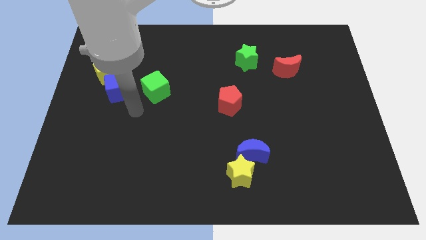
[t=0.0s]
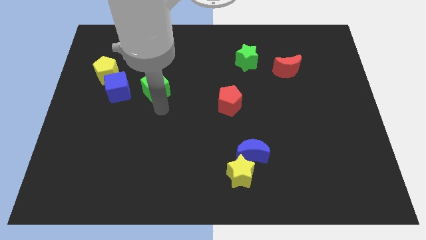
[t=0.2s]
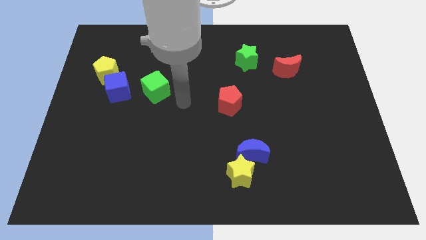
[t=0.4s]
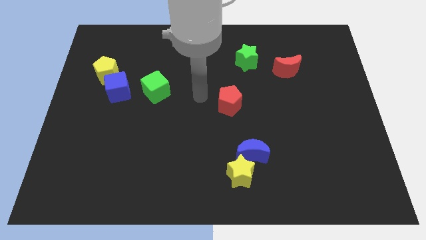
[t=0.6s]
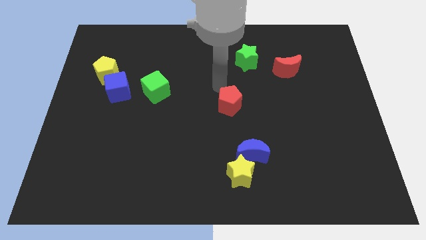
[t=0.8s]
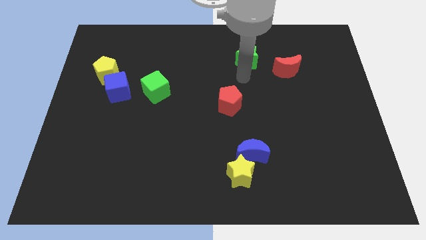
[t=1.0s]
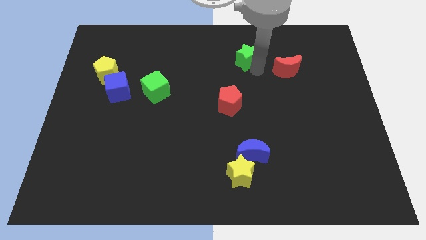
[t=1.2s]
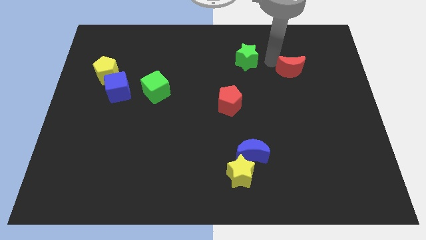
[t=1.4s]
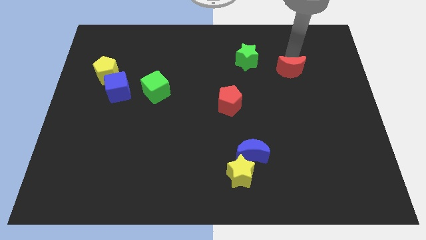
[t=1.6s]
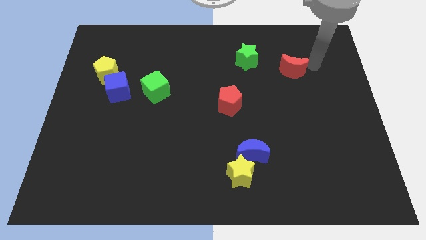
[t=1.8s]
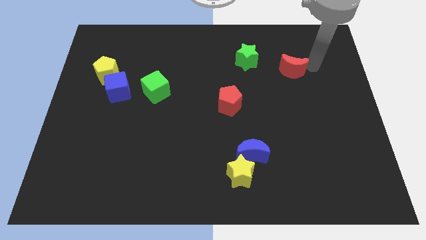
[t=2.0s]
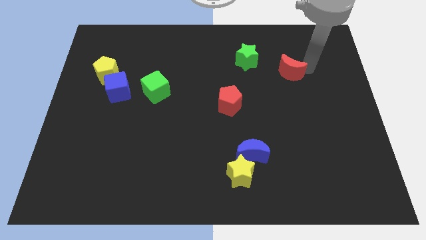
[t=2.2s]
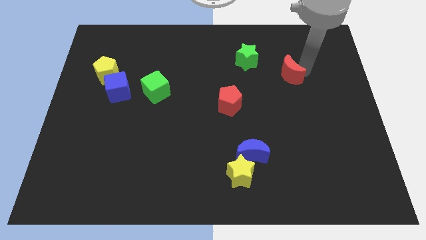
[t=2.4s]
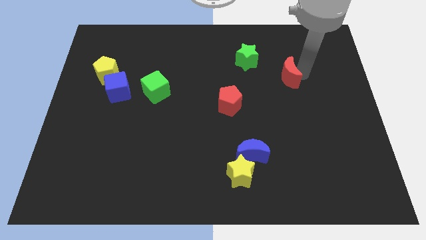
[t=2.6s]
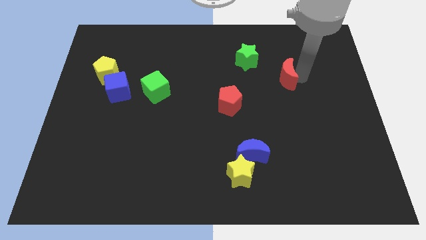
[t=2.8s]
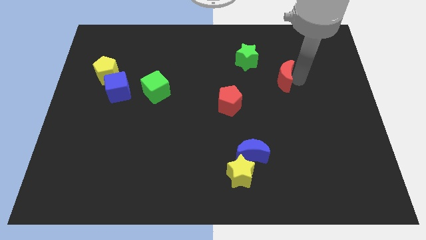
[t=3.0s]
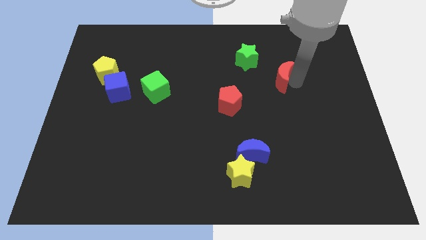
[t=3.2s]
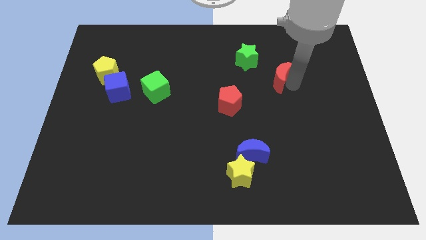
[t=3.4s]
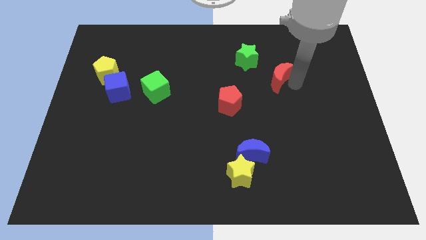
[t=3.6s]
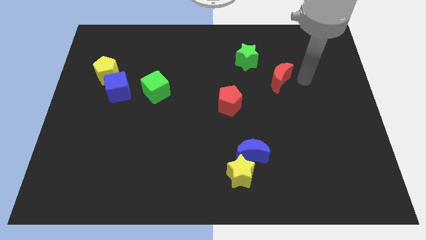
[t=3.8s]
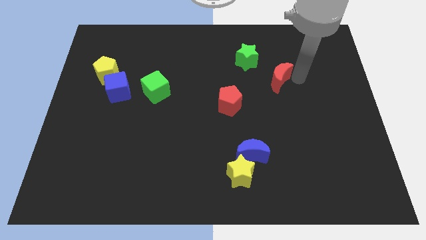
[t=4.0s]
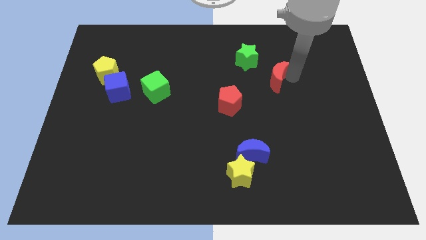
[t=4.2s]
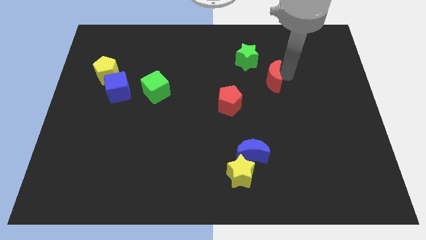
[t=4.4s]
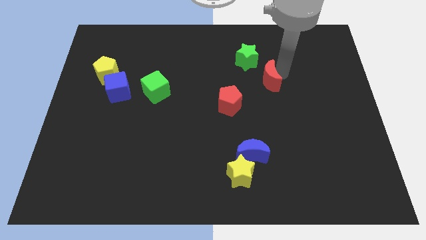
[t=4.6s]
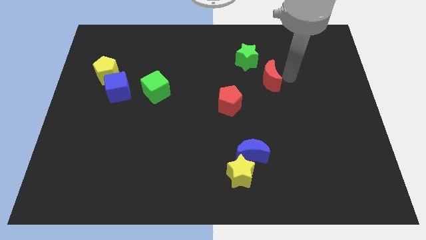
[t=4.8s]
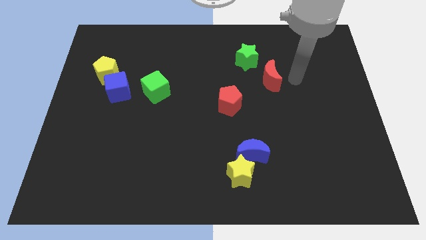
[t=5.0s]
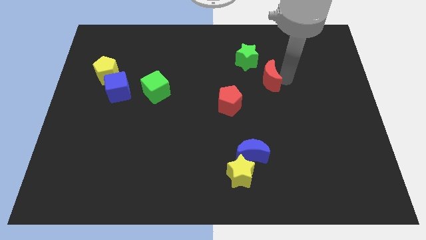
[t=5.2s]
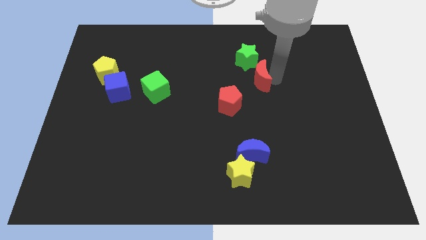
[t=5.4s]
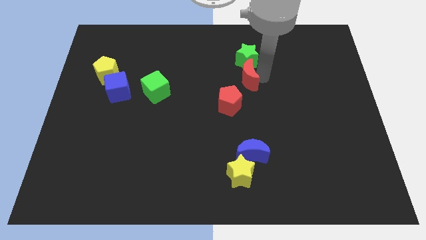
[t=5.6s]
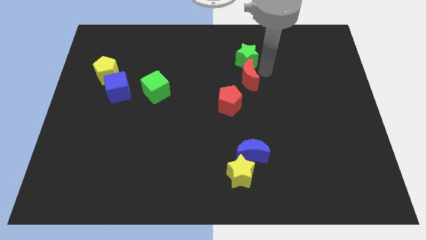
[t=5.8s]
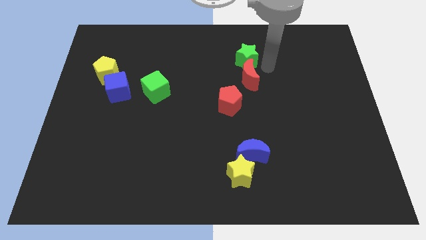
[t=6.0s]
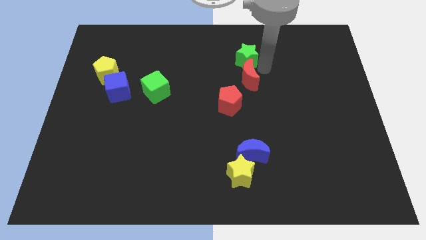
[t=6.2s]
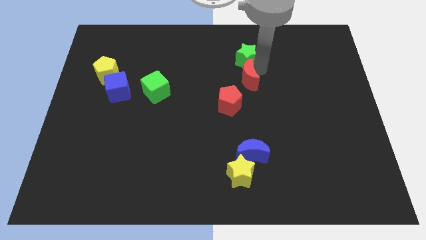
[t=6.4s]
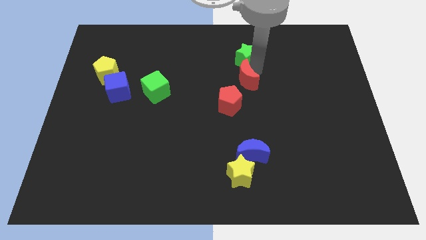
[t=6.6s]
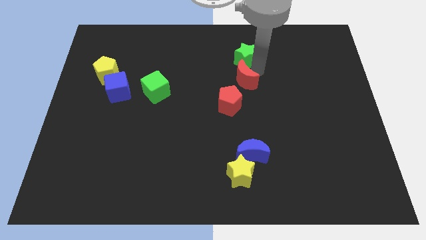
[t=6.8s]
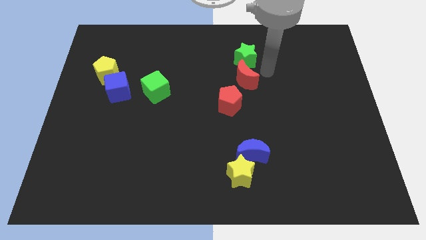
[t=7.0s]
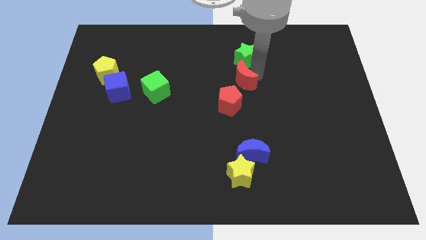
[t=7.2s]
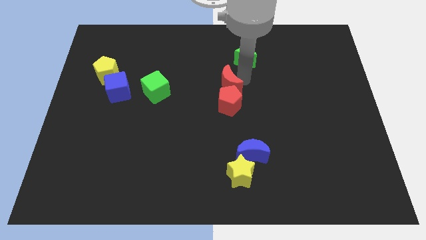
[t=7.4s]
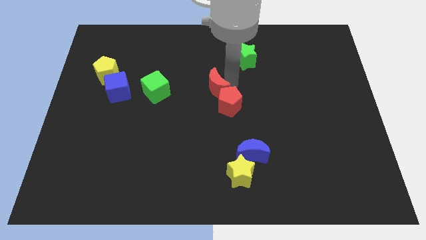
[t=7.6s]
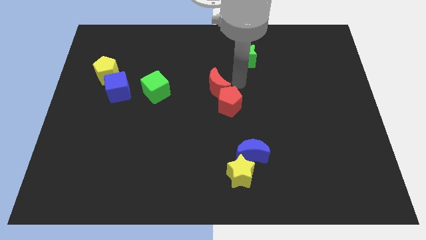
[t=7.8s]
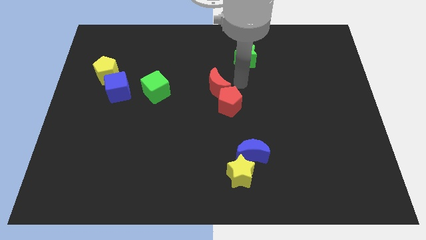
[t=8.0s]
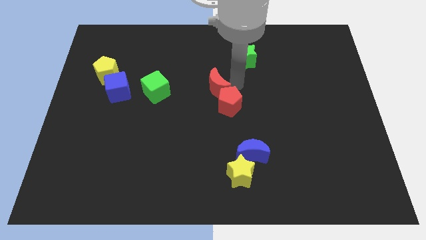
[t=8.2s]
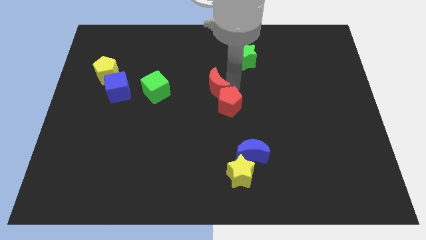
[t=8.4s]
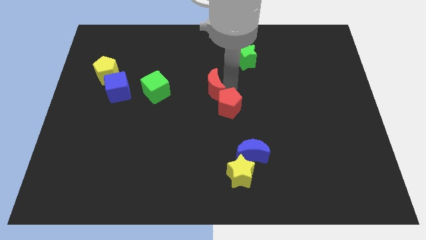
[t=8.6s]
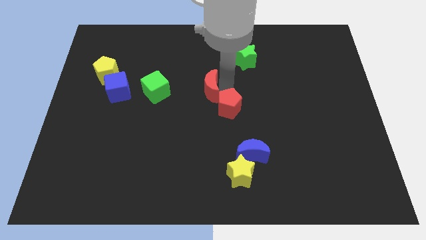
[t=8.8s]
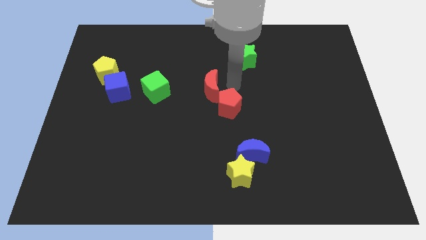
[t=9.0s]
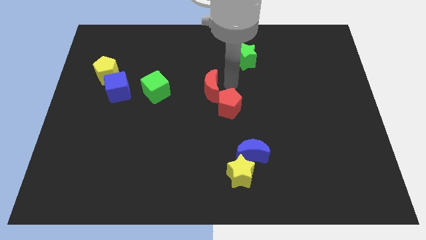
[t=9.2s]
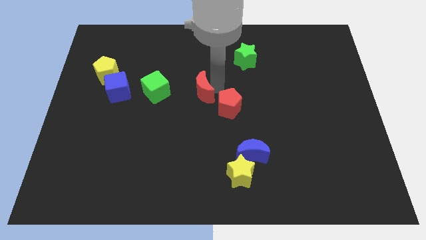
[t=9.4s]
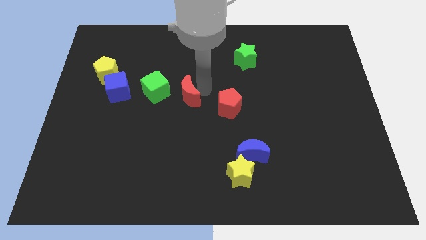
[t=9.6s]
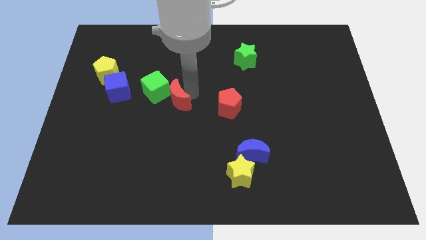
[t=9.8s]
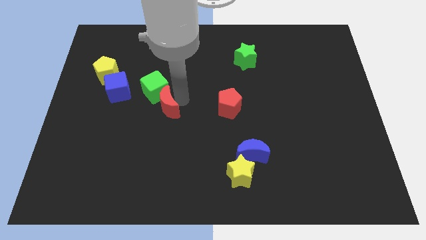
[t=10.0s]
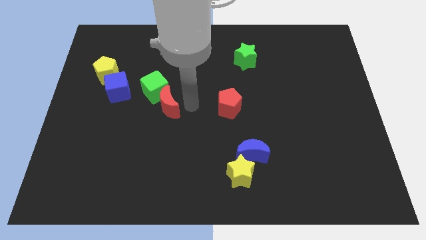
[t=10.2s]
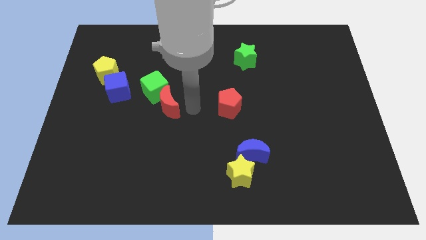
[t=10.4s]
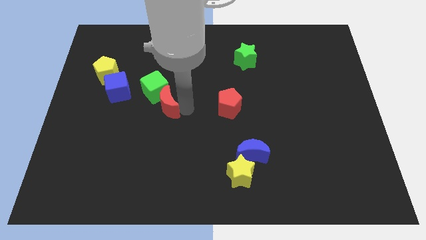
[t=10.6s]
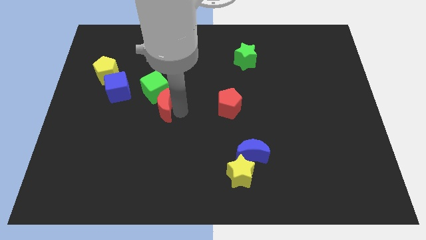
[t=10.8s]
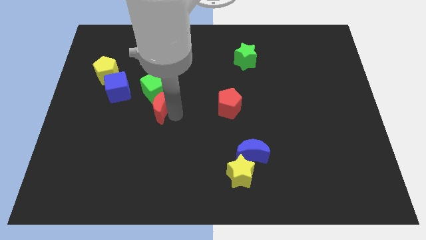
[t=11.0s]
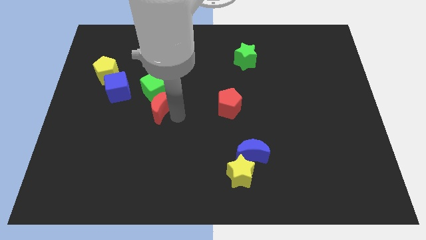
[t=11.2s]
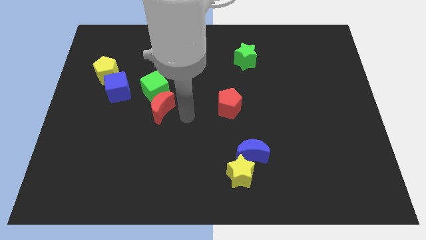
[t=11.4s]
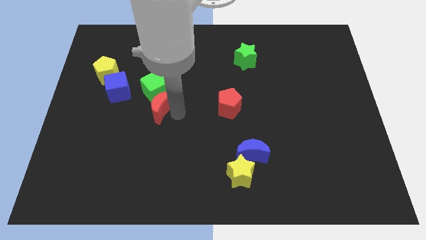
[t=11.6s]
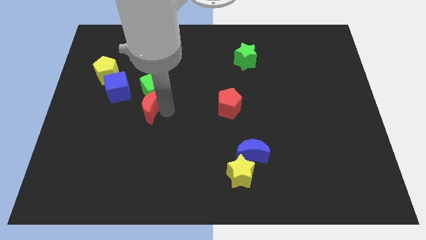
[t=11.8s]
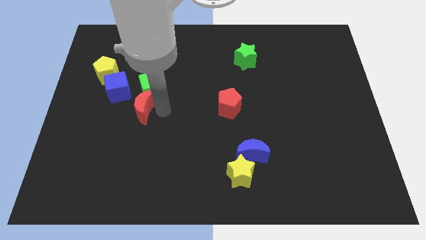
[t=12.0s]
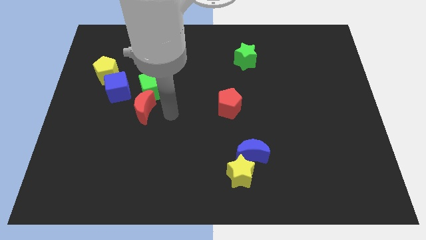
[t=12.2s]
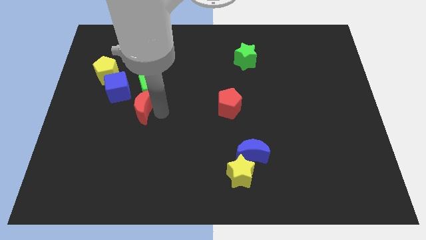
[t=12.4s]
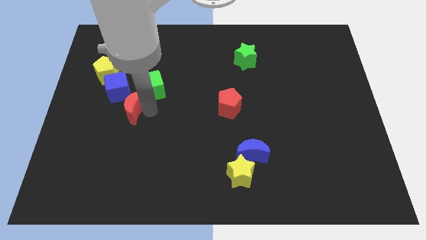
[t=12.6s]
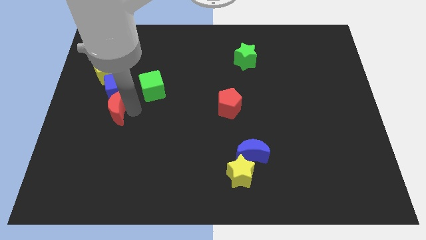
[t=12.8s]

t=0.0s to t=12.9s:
push the red moon below the yellow pentagon

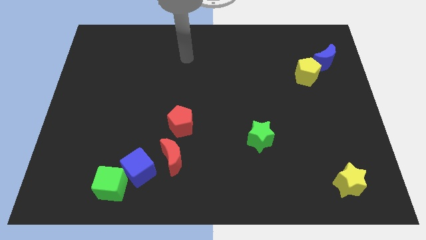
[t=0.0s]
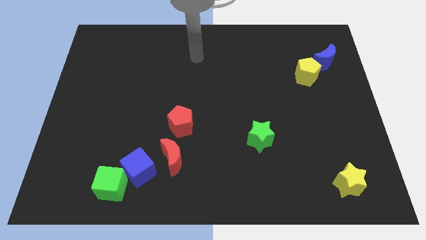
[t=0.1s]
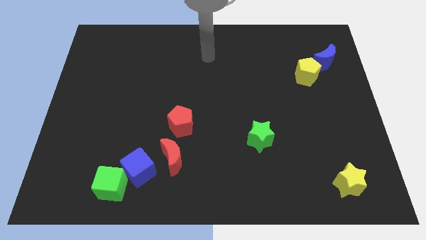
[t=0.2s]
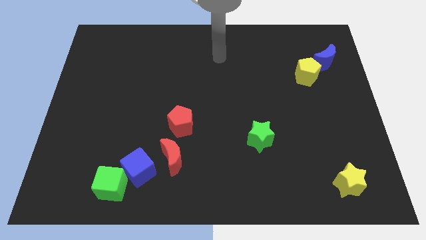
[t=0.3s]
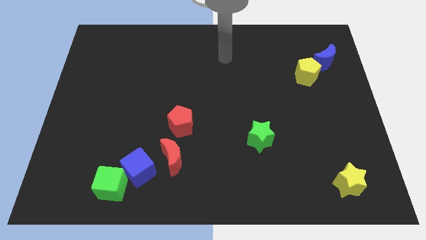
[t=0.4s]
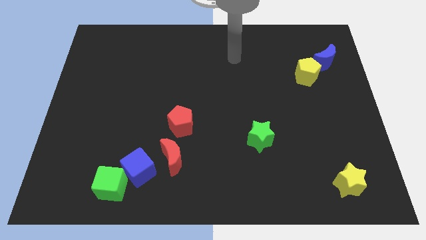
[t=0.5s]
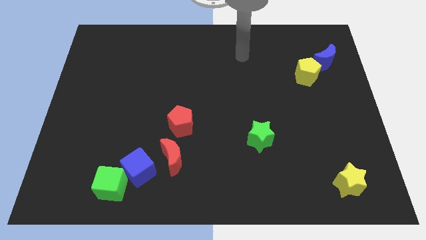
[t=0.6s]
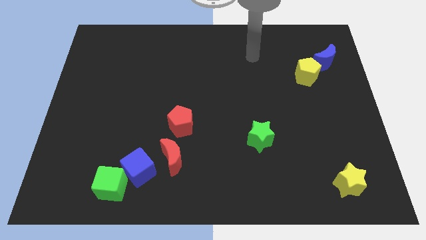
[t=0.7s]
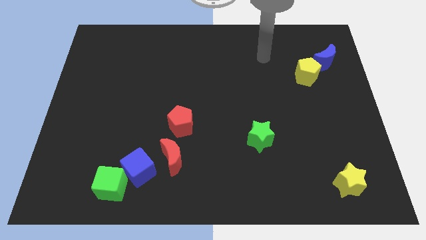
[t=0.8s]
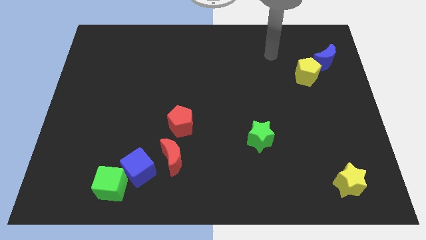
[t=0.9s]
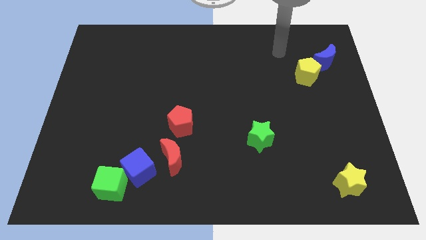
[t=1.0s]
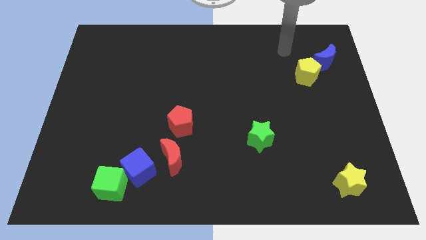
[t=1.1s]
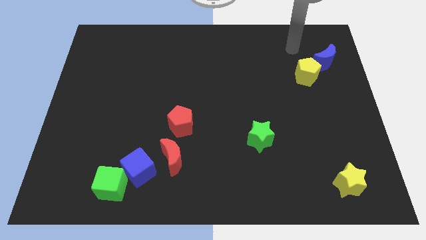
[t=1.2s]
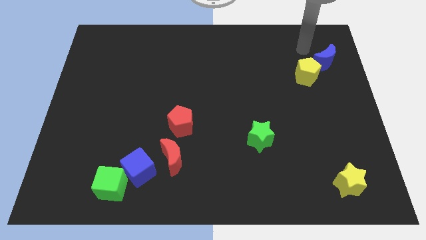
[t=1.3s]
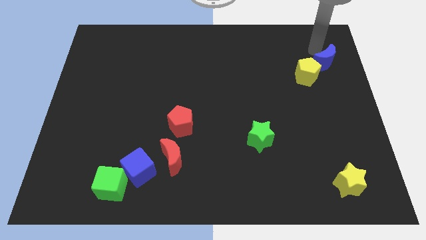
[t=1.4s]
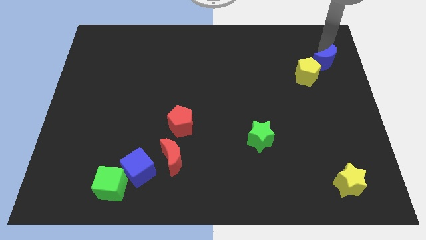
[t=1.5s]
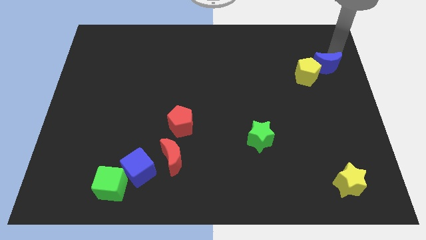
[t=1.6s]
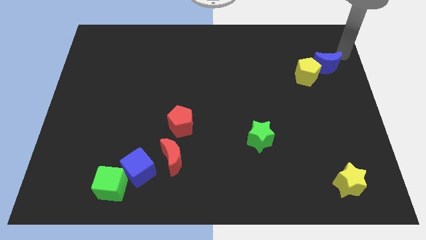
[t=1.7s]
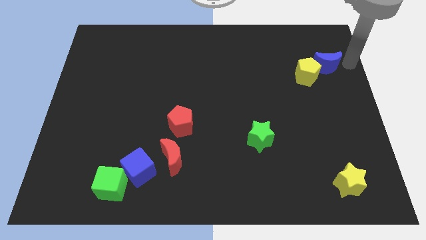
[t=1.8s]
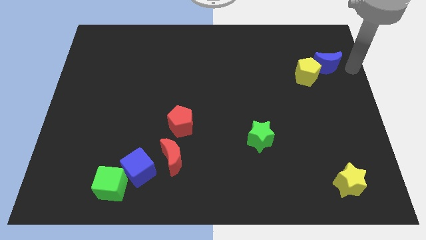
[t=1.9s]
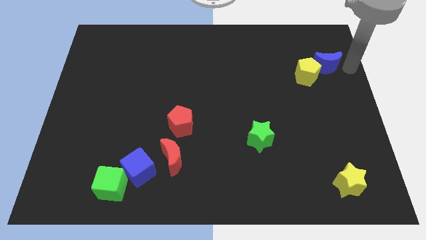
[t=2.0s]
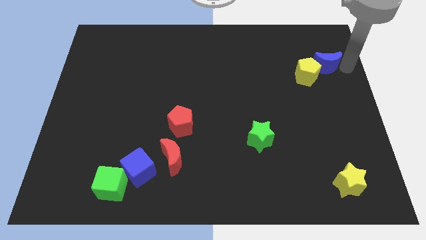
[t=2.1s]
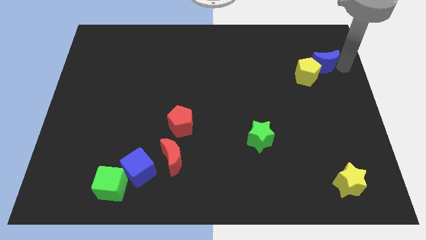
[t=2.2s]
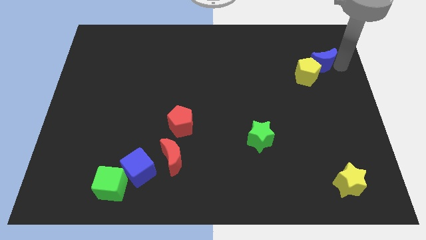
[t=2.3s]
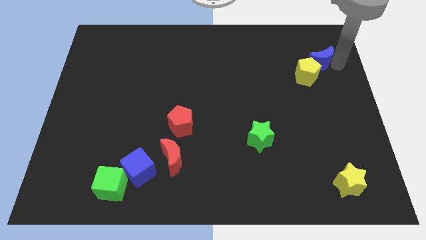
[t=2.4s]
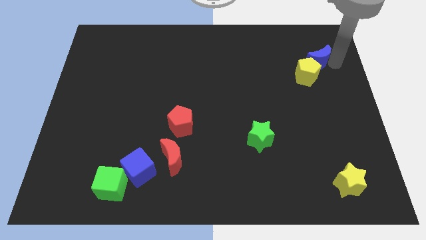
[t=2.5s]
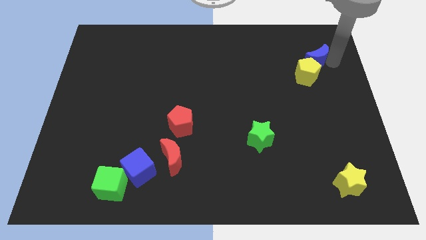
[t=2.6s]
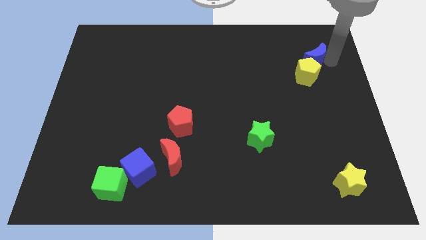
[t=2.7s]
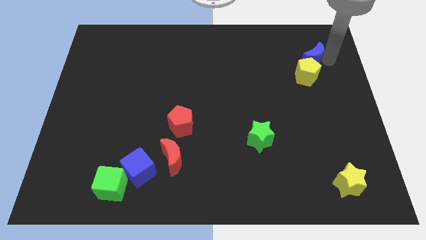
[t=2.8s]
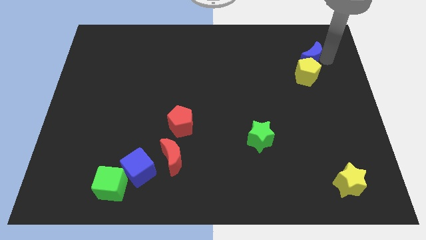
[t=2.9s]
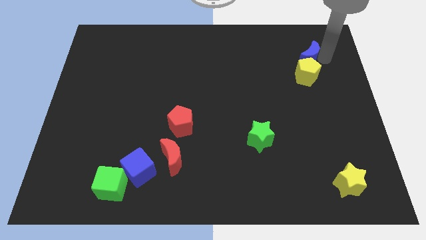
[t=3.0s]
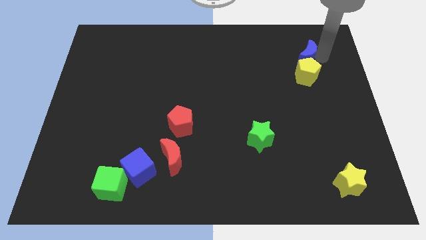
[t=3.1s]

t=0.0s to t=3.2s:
slide the blue moon to the top left of the yellow pentagon
